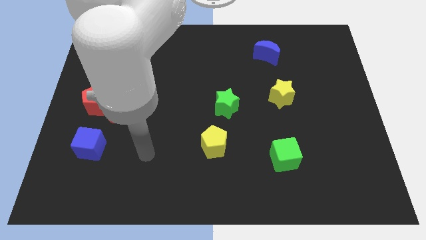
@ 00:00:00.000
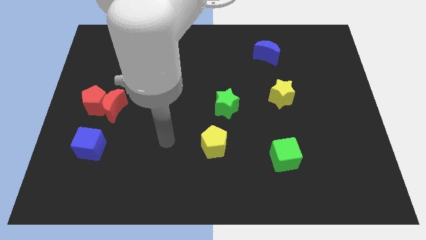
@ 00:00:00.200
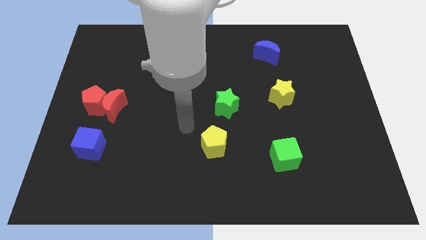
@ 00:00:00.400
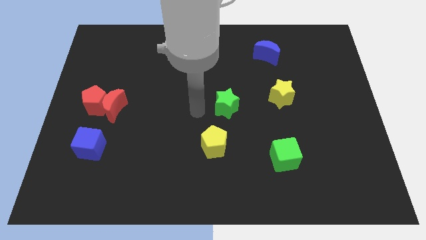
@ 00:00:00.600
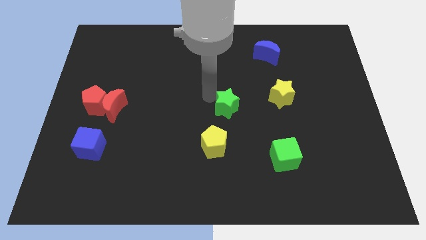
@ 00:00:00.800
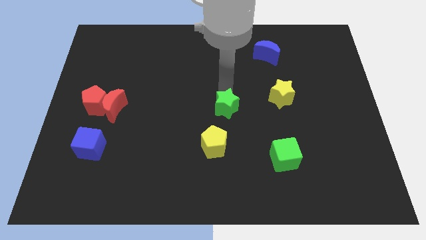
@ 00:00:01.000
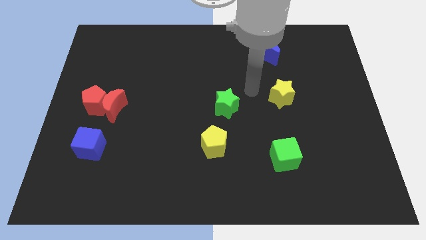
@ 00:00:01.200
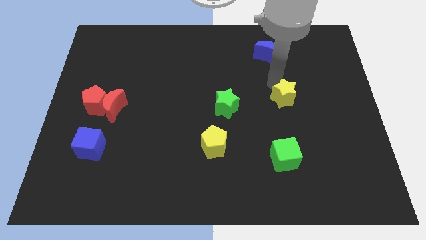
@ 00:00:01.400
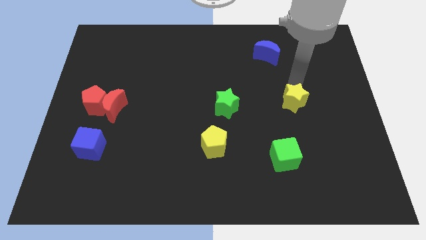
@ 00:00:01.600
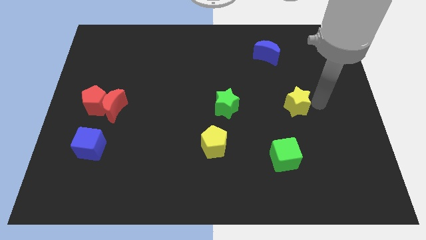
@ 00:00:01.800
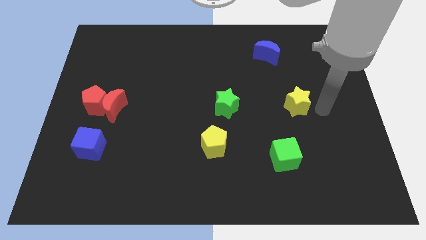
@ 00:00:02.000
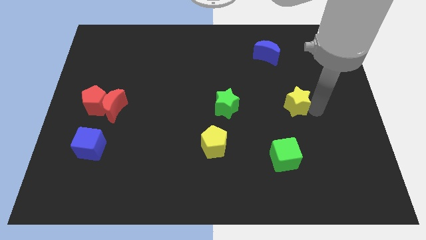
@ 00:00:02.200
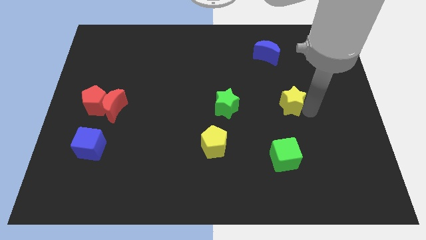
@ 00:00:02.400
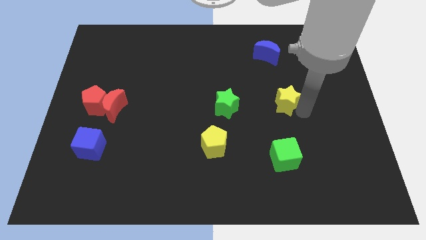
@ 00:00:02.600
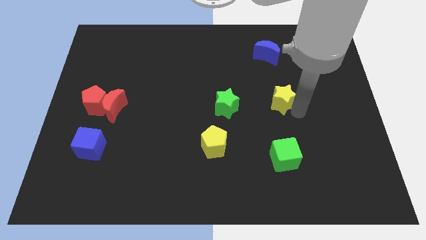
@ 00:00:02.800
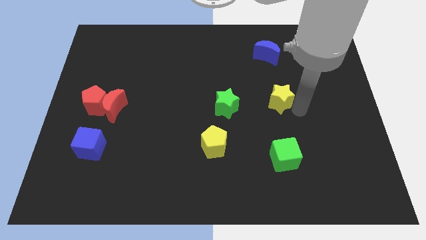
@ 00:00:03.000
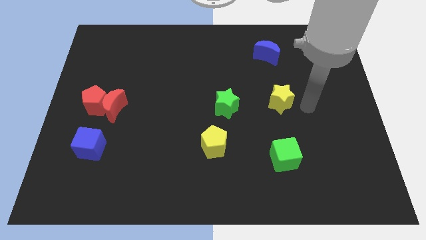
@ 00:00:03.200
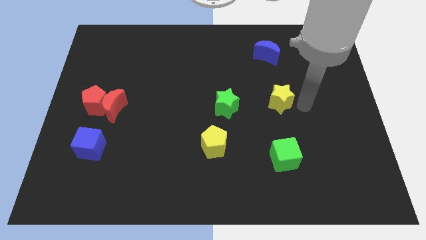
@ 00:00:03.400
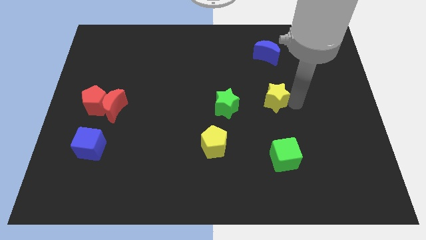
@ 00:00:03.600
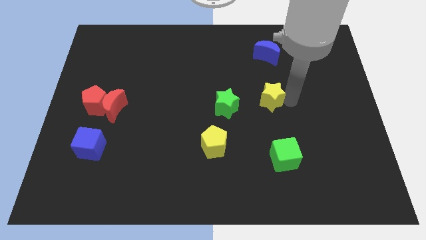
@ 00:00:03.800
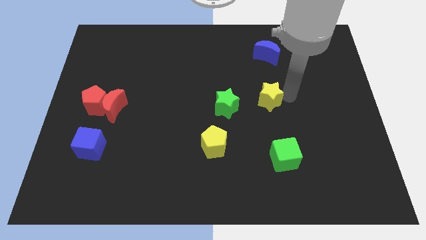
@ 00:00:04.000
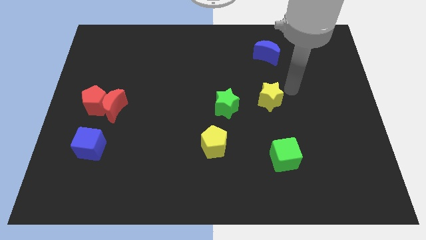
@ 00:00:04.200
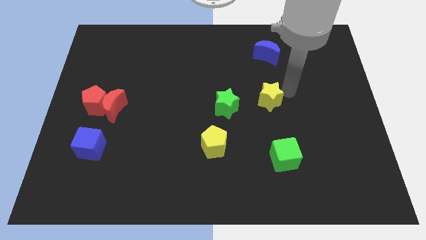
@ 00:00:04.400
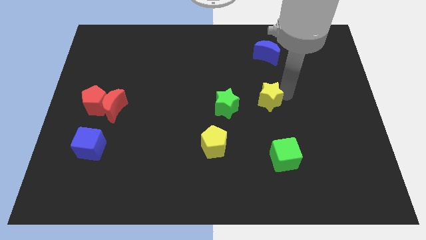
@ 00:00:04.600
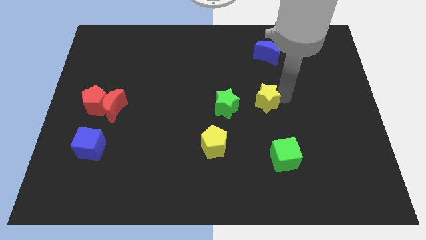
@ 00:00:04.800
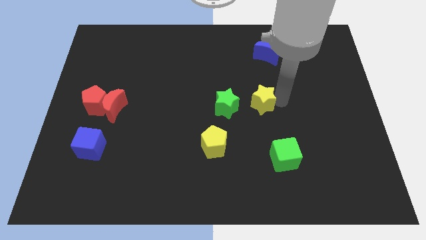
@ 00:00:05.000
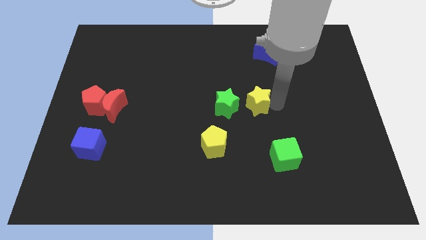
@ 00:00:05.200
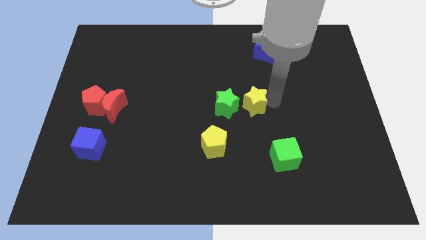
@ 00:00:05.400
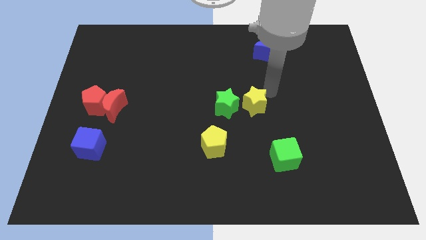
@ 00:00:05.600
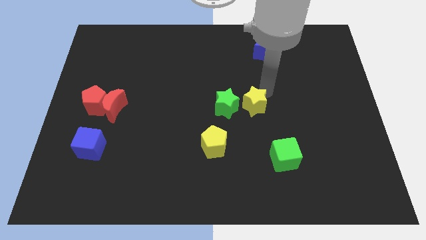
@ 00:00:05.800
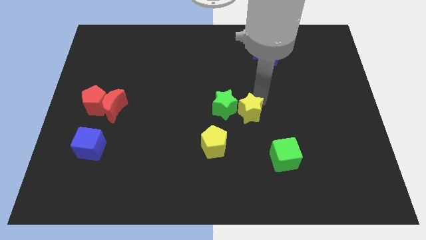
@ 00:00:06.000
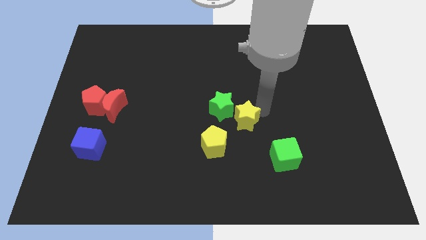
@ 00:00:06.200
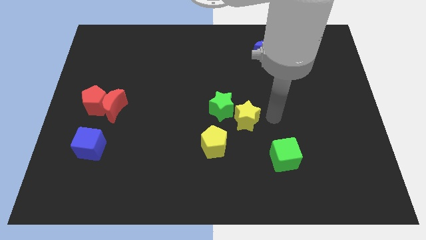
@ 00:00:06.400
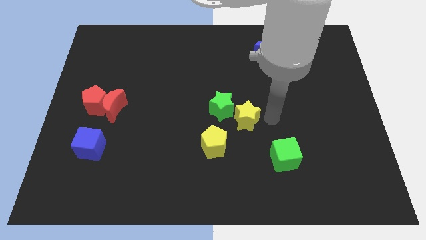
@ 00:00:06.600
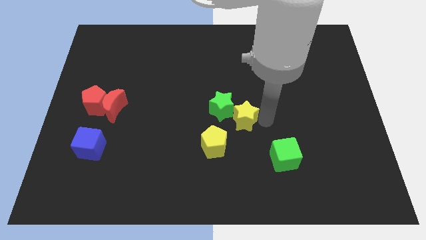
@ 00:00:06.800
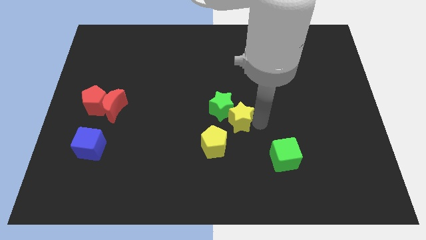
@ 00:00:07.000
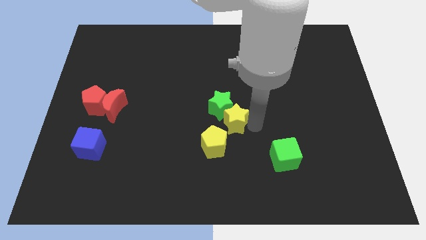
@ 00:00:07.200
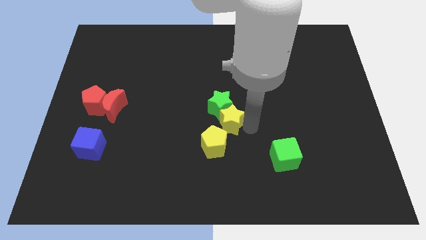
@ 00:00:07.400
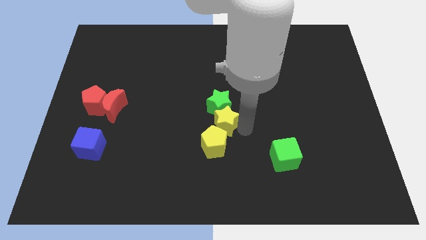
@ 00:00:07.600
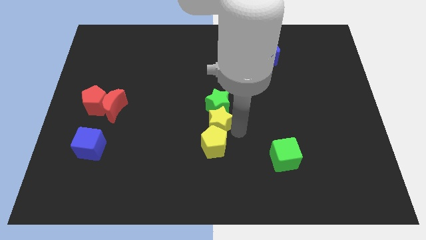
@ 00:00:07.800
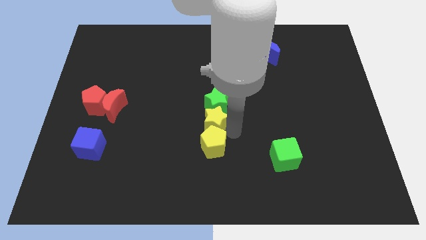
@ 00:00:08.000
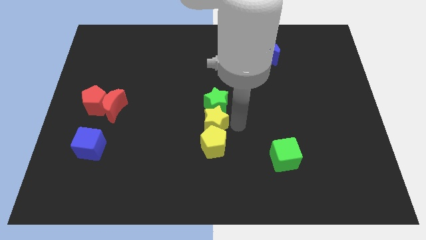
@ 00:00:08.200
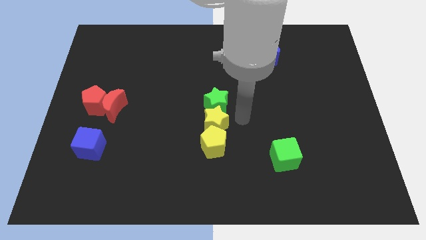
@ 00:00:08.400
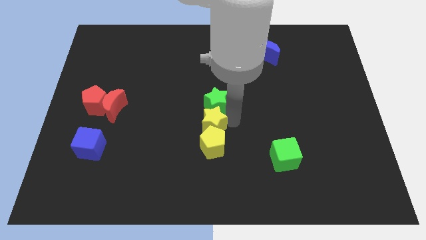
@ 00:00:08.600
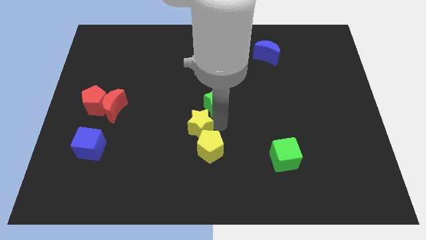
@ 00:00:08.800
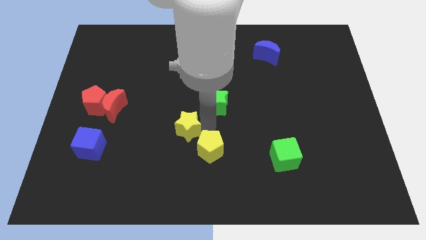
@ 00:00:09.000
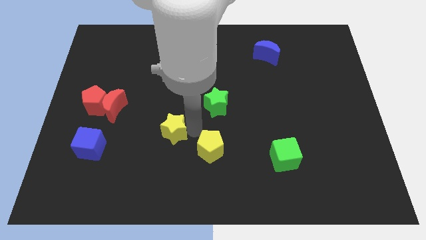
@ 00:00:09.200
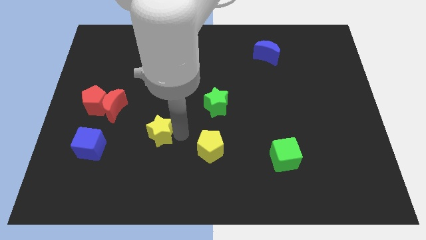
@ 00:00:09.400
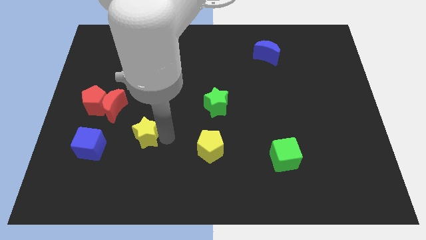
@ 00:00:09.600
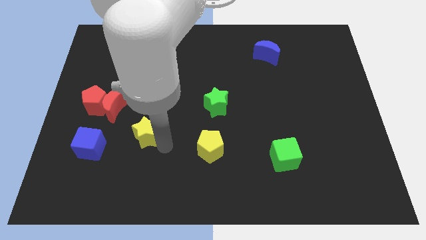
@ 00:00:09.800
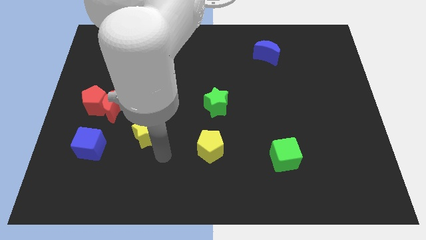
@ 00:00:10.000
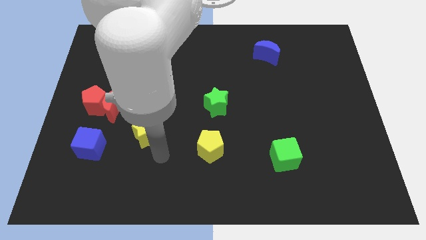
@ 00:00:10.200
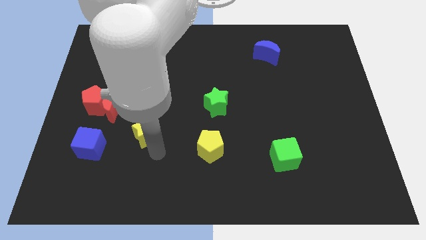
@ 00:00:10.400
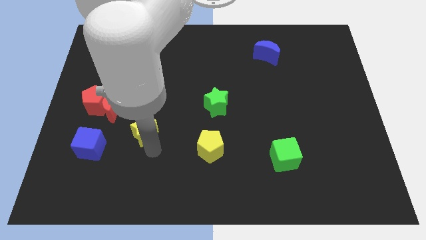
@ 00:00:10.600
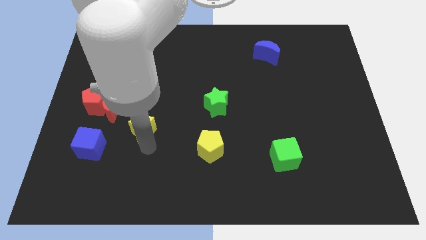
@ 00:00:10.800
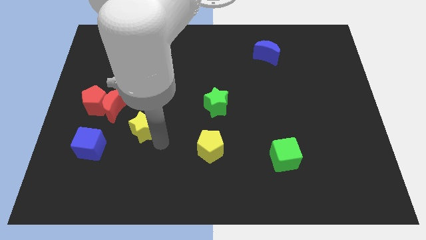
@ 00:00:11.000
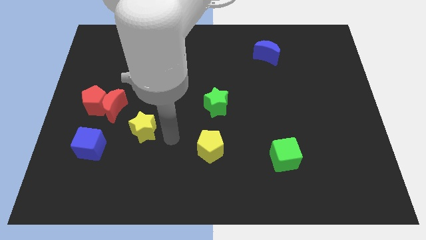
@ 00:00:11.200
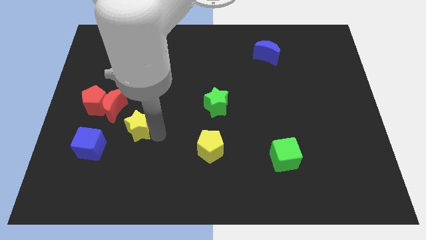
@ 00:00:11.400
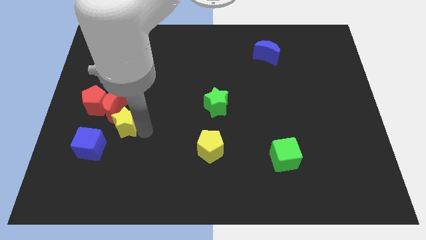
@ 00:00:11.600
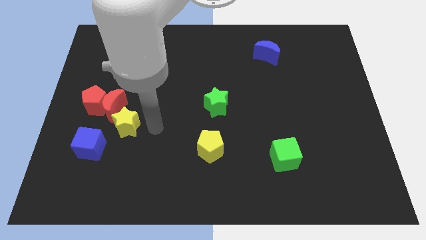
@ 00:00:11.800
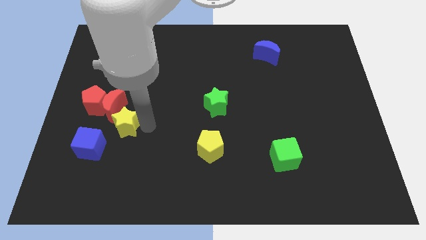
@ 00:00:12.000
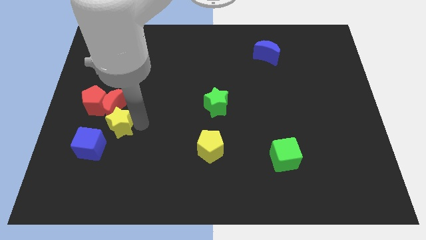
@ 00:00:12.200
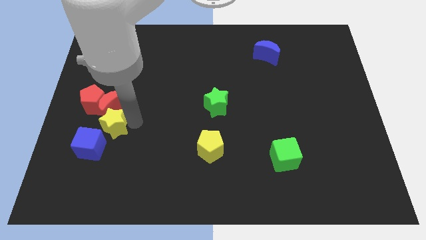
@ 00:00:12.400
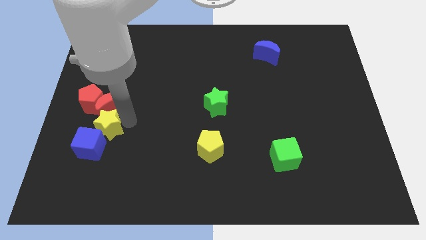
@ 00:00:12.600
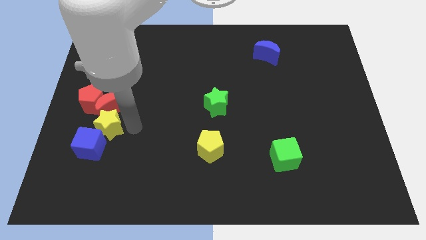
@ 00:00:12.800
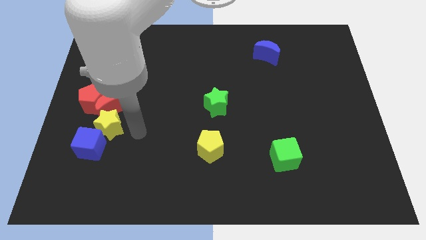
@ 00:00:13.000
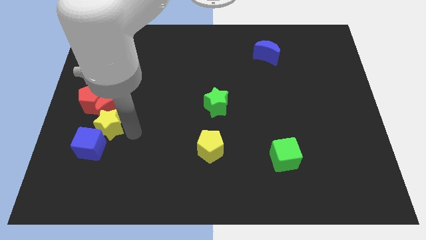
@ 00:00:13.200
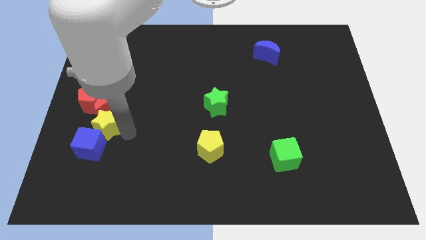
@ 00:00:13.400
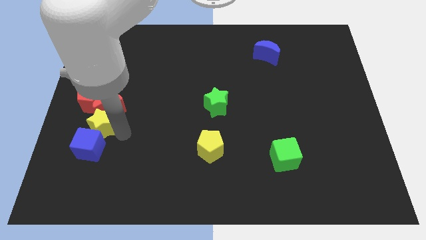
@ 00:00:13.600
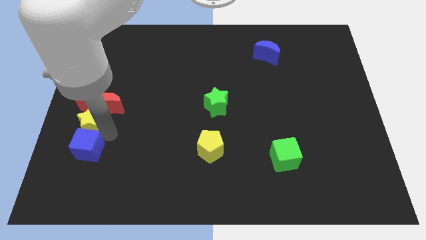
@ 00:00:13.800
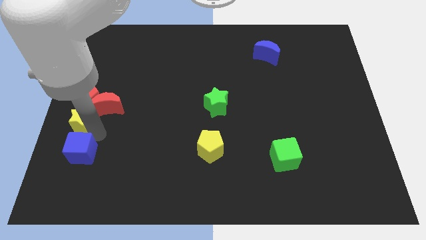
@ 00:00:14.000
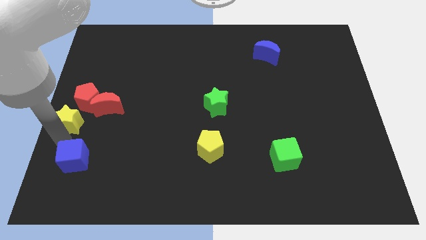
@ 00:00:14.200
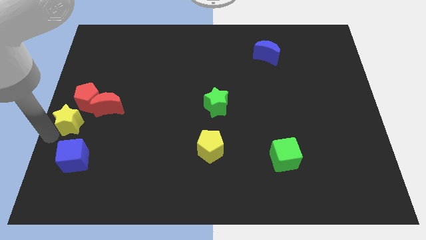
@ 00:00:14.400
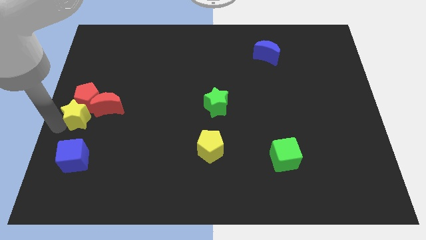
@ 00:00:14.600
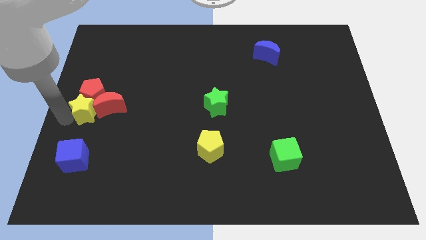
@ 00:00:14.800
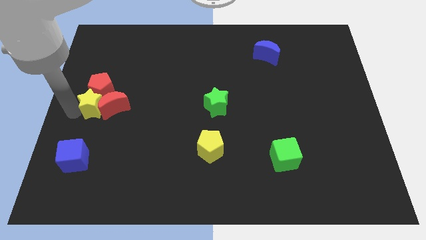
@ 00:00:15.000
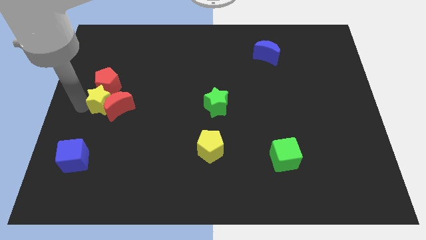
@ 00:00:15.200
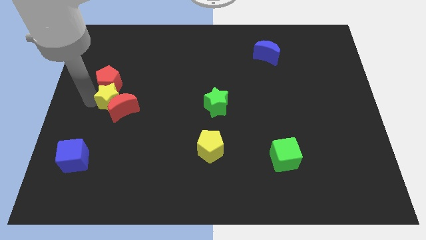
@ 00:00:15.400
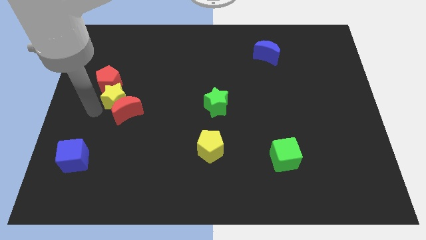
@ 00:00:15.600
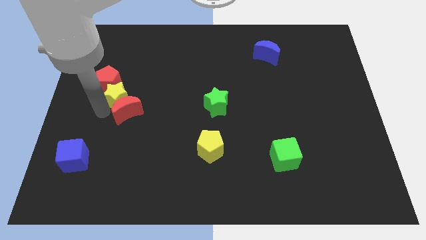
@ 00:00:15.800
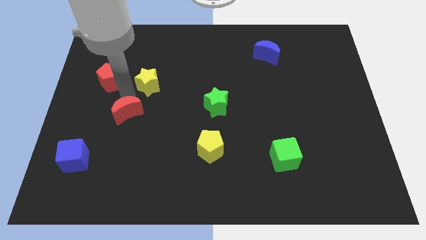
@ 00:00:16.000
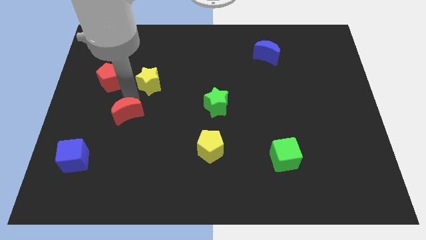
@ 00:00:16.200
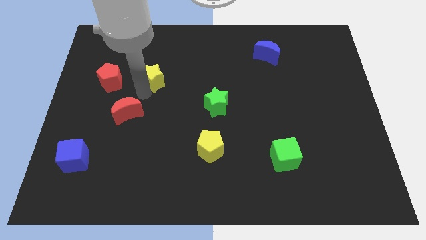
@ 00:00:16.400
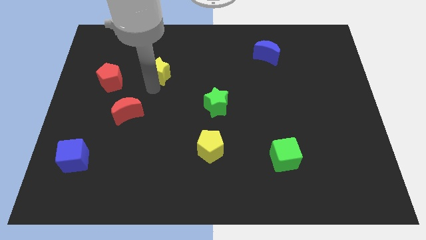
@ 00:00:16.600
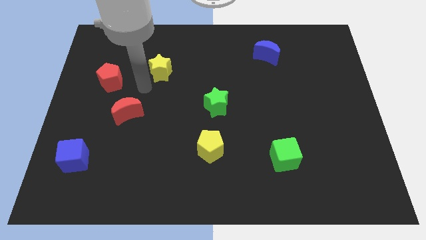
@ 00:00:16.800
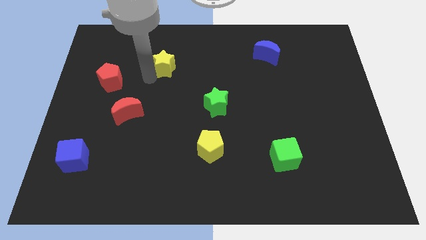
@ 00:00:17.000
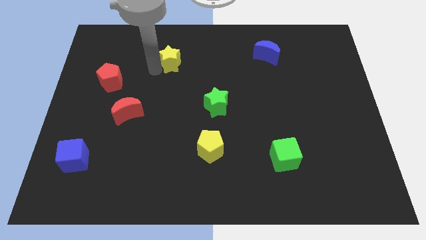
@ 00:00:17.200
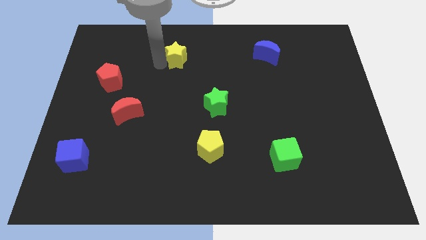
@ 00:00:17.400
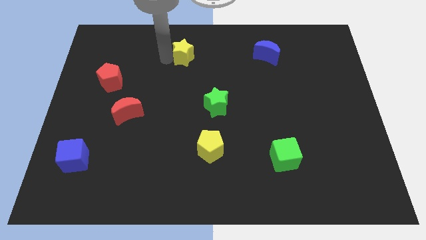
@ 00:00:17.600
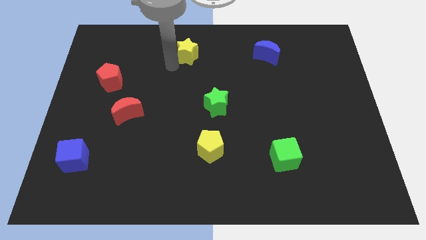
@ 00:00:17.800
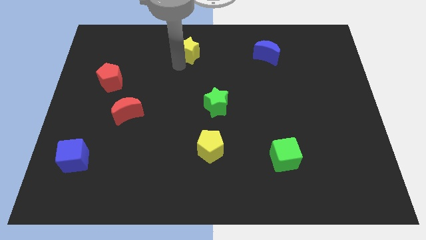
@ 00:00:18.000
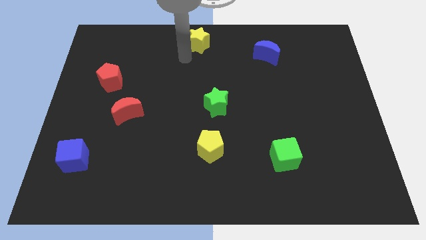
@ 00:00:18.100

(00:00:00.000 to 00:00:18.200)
push the yellow star to the towards your base
